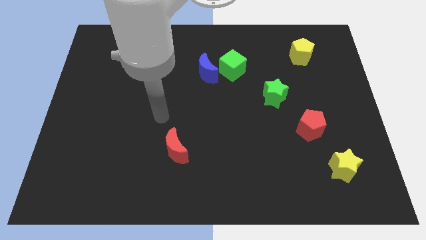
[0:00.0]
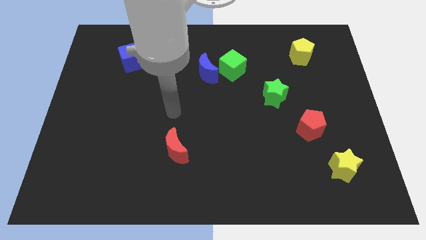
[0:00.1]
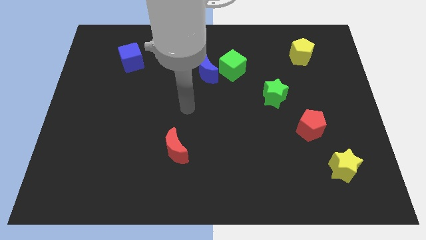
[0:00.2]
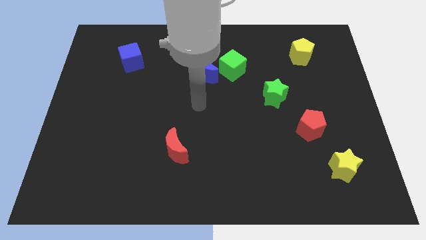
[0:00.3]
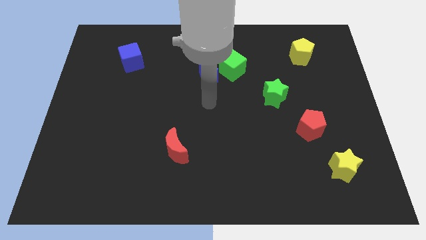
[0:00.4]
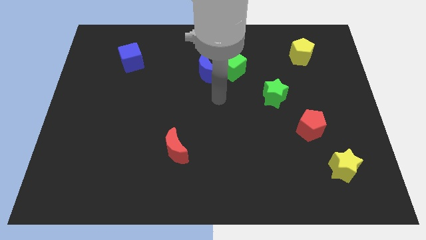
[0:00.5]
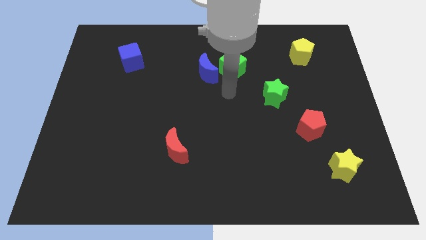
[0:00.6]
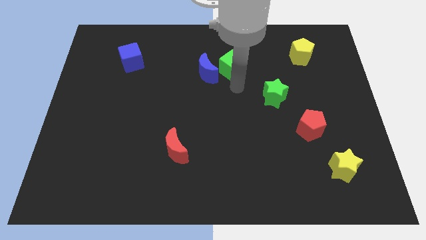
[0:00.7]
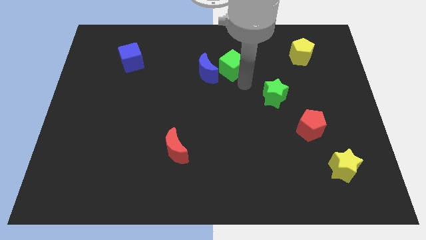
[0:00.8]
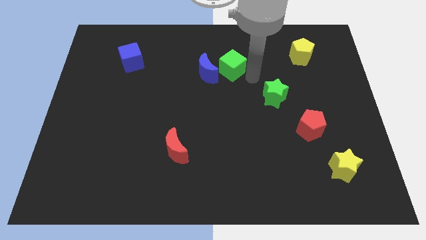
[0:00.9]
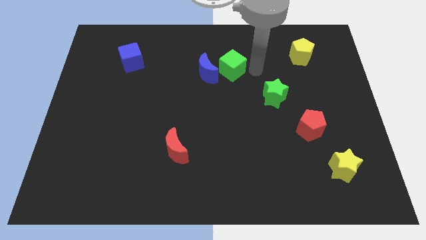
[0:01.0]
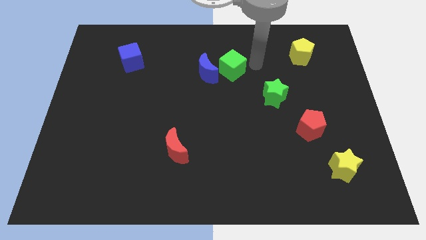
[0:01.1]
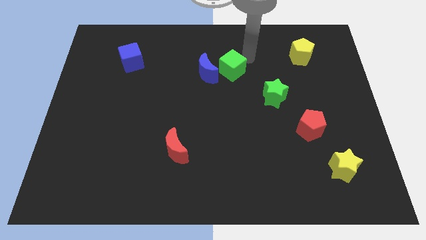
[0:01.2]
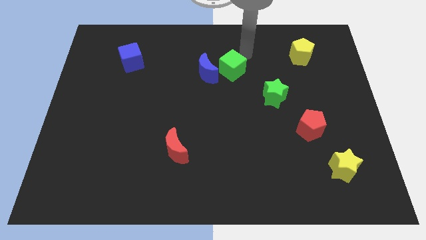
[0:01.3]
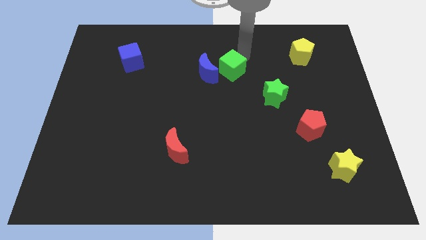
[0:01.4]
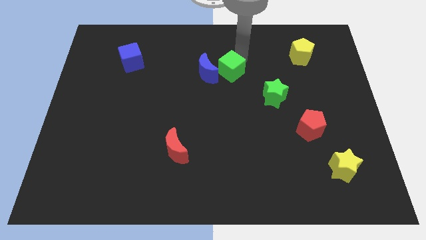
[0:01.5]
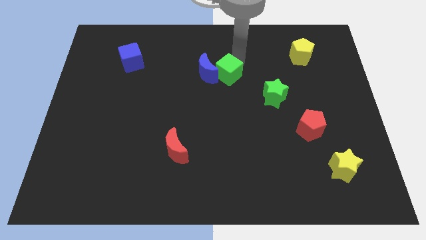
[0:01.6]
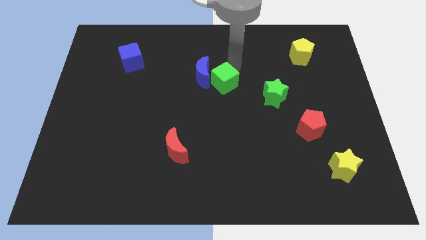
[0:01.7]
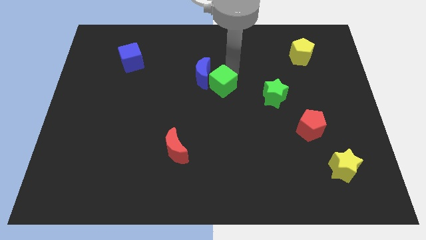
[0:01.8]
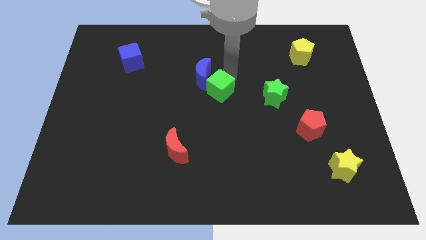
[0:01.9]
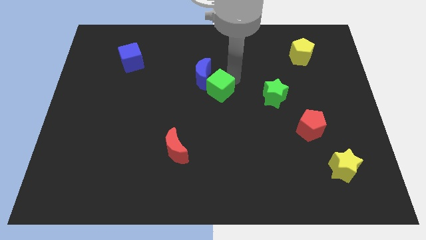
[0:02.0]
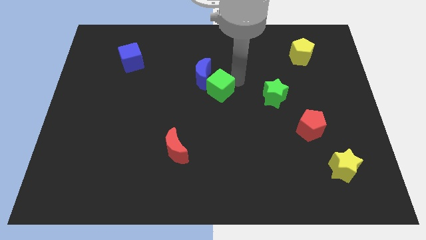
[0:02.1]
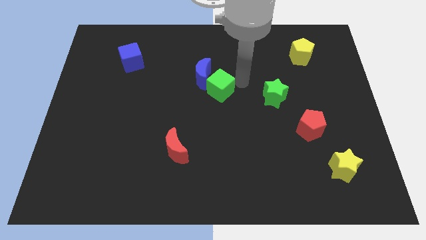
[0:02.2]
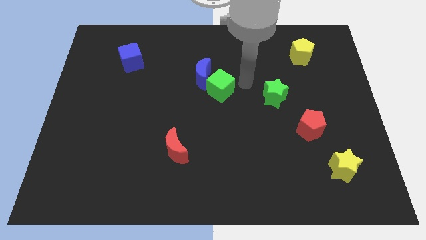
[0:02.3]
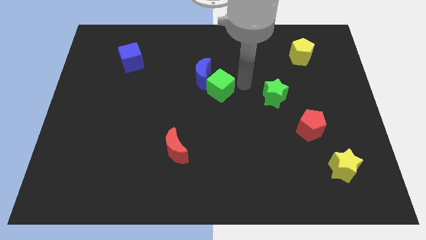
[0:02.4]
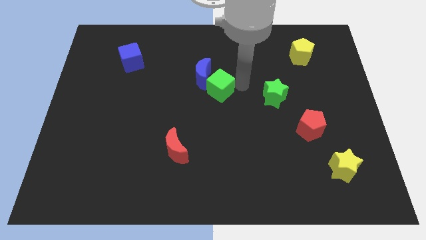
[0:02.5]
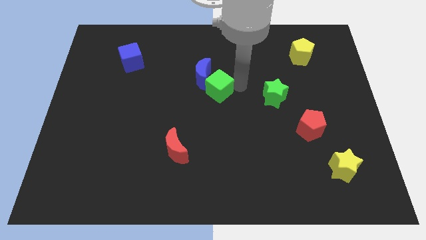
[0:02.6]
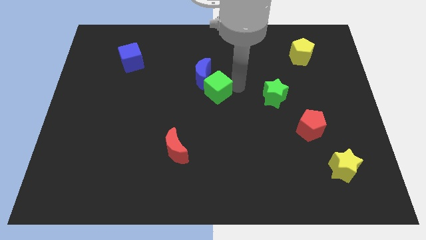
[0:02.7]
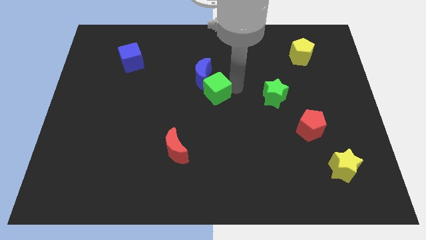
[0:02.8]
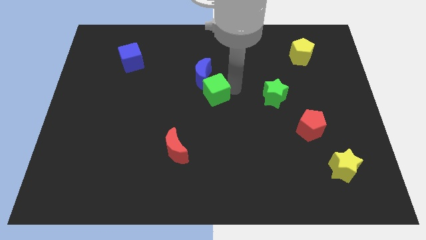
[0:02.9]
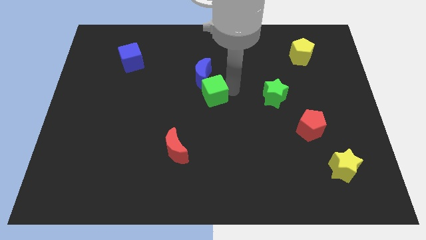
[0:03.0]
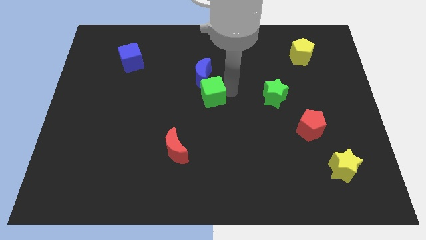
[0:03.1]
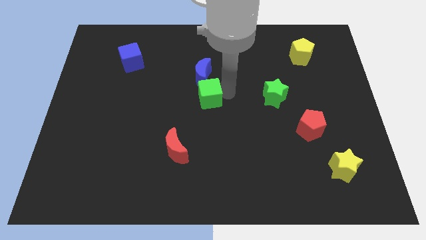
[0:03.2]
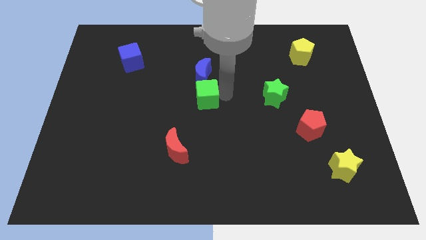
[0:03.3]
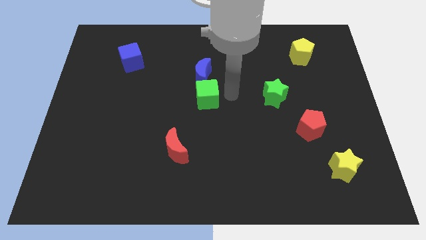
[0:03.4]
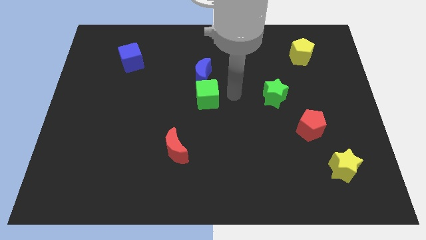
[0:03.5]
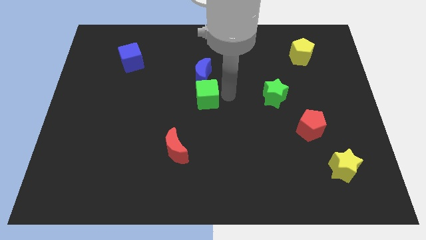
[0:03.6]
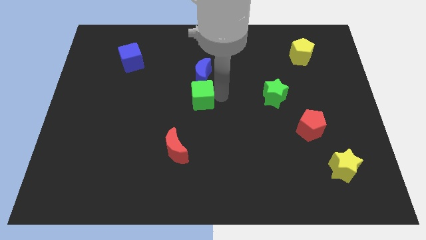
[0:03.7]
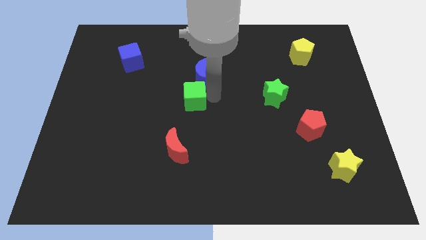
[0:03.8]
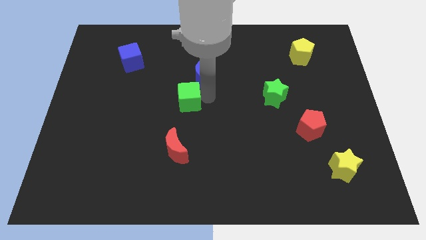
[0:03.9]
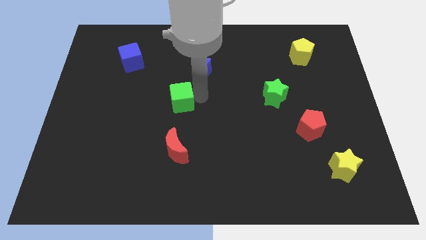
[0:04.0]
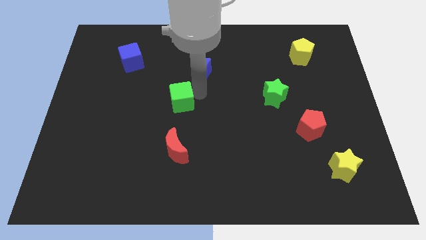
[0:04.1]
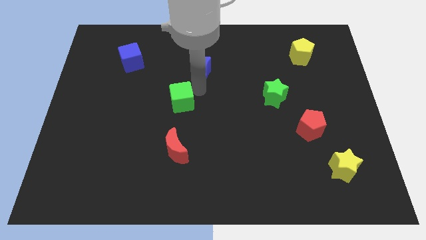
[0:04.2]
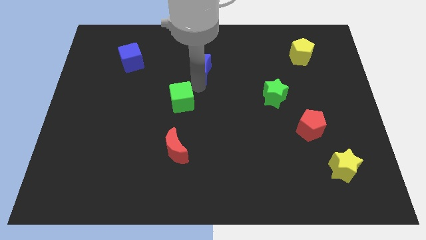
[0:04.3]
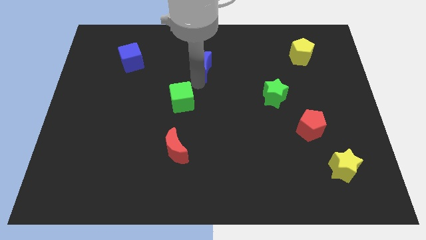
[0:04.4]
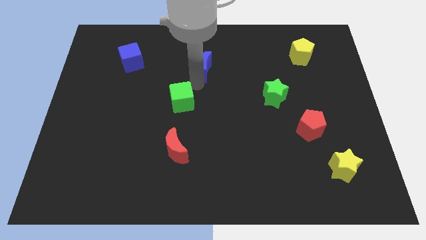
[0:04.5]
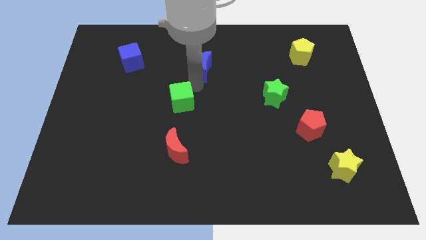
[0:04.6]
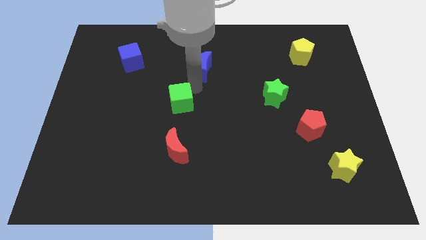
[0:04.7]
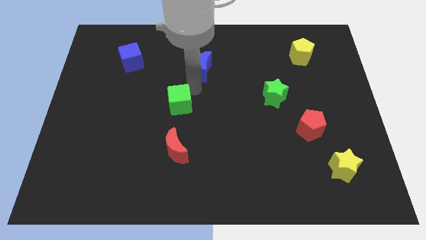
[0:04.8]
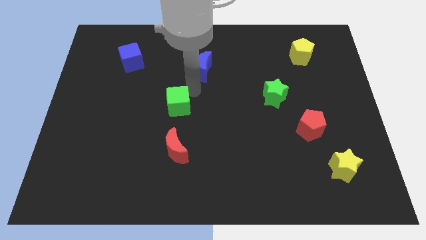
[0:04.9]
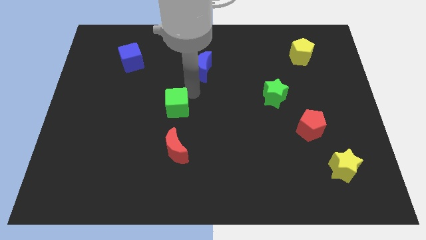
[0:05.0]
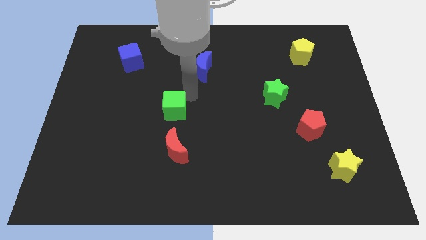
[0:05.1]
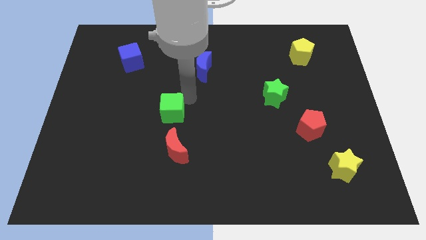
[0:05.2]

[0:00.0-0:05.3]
slide the green cube down and to the left

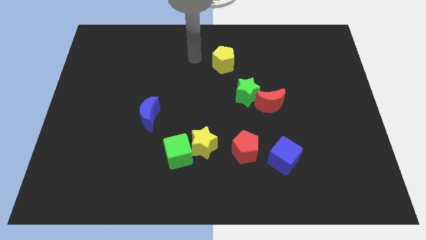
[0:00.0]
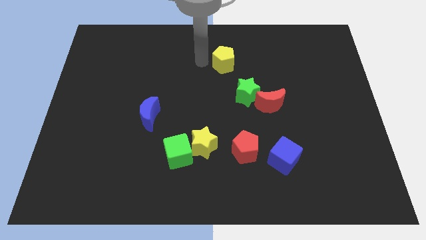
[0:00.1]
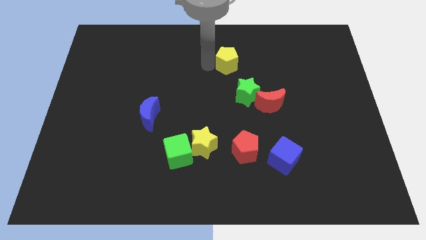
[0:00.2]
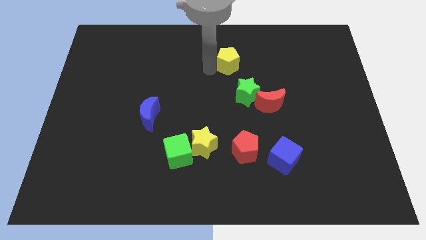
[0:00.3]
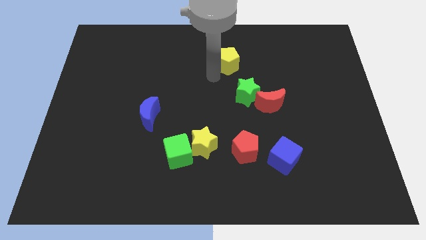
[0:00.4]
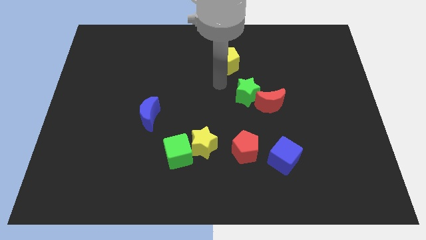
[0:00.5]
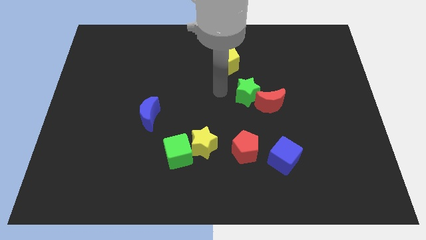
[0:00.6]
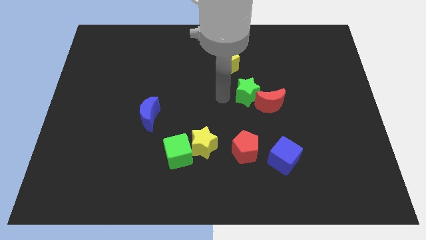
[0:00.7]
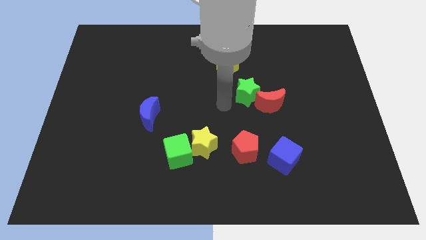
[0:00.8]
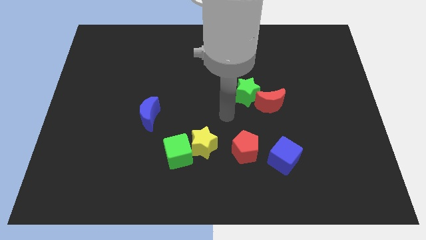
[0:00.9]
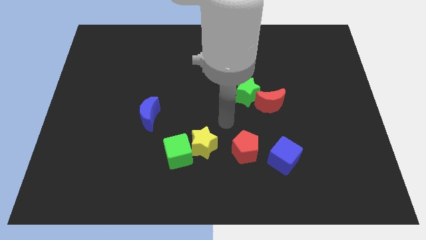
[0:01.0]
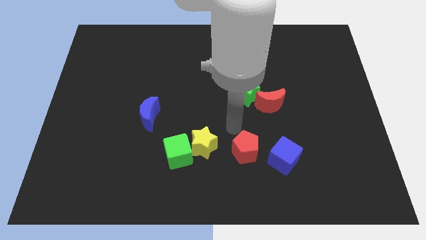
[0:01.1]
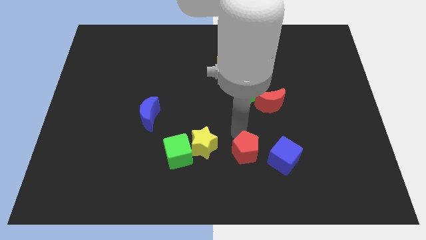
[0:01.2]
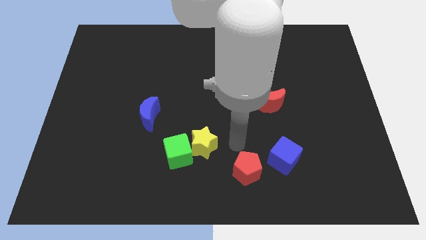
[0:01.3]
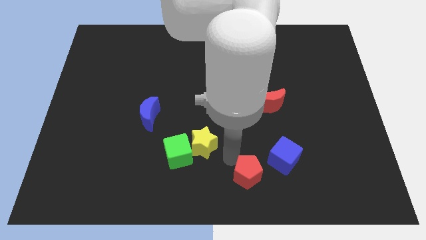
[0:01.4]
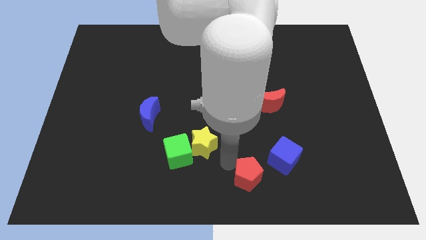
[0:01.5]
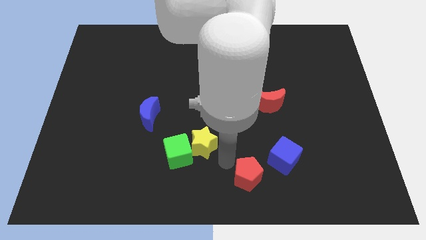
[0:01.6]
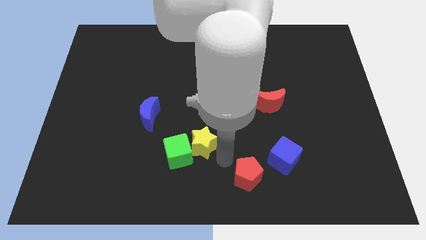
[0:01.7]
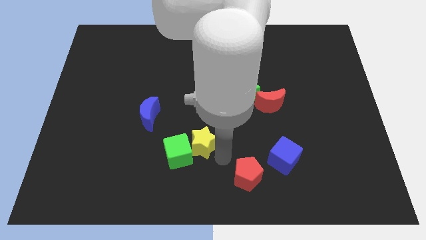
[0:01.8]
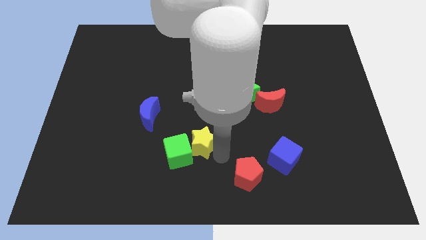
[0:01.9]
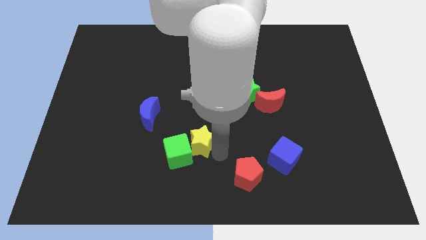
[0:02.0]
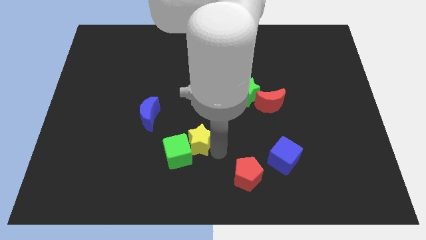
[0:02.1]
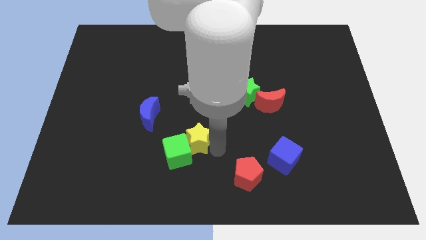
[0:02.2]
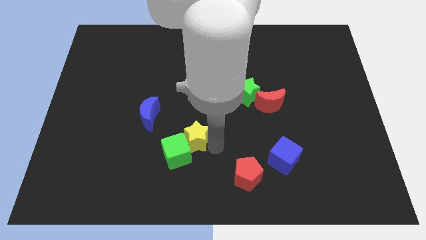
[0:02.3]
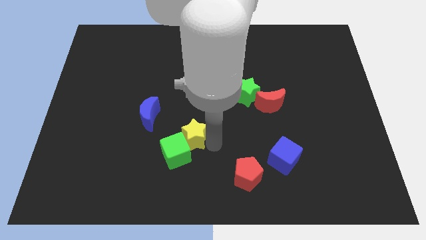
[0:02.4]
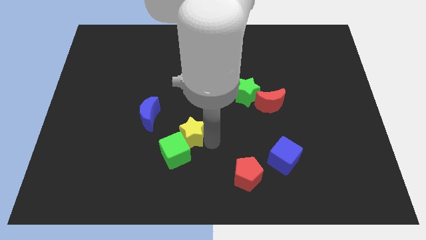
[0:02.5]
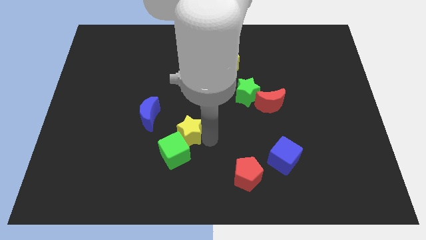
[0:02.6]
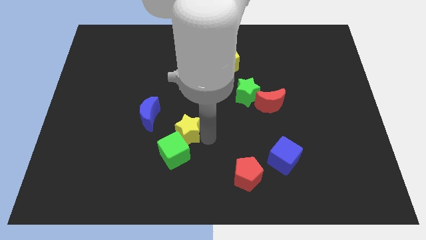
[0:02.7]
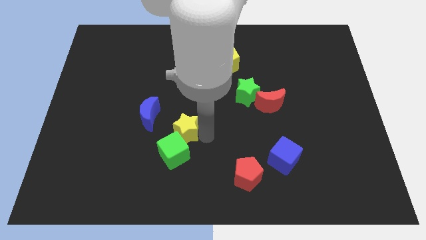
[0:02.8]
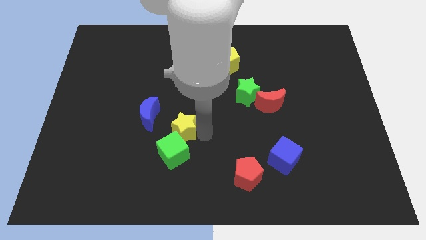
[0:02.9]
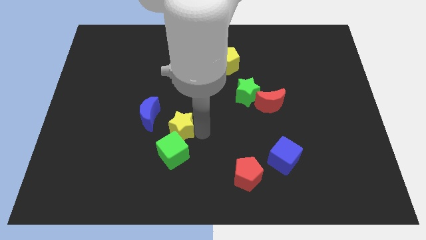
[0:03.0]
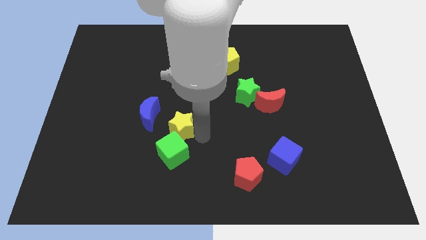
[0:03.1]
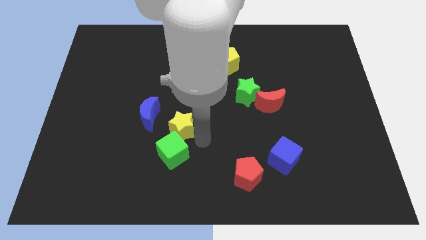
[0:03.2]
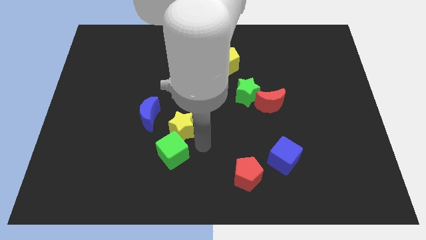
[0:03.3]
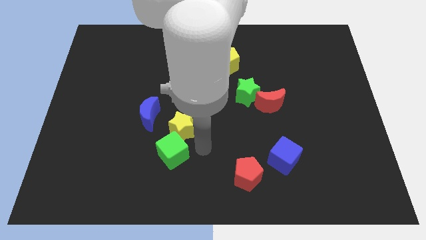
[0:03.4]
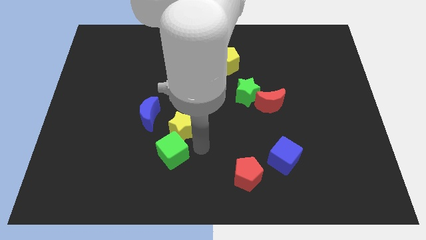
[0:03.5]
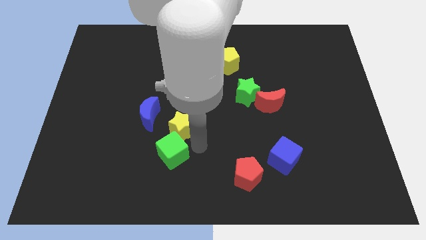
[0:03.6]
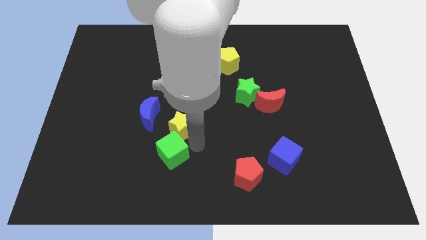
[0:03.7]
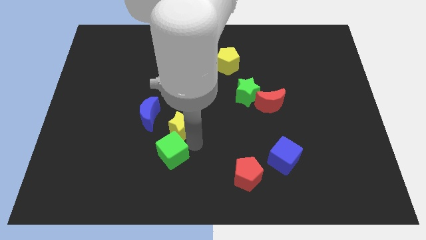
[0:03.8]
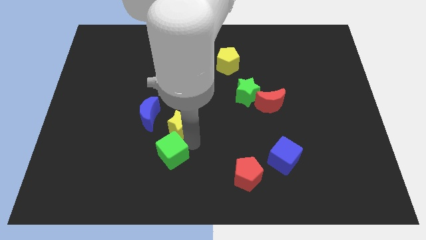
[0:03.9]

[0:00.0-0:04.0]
push the yellow star a little bit up and then left
